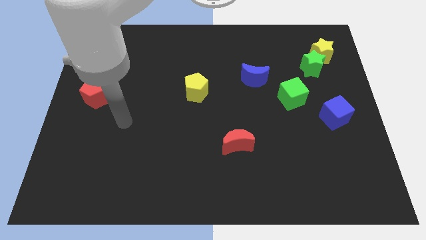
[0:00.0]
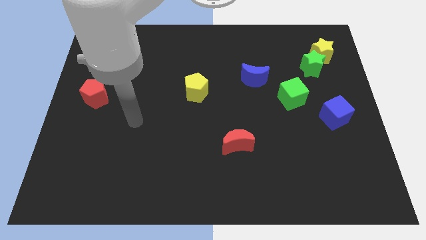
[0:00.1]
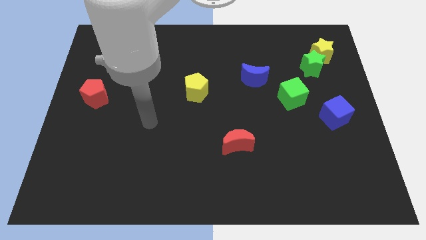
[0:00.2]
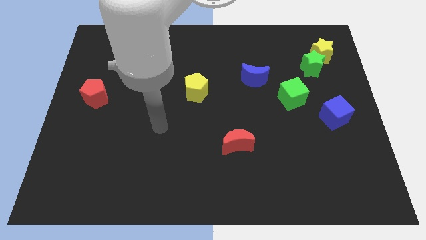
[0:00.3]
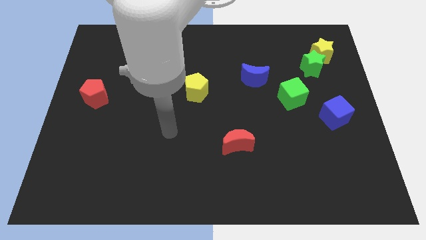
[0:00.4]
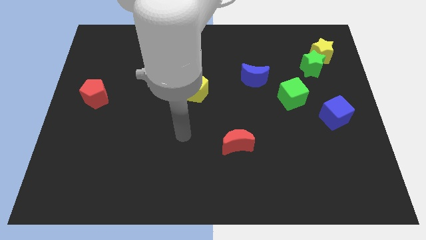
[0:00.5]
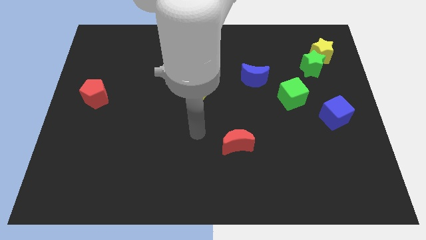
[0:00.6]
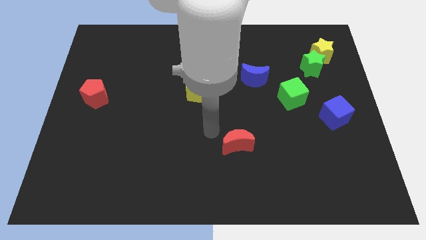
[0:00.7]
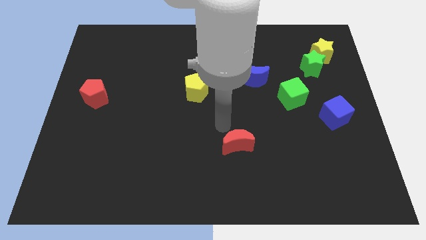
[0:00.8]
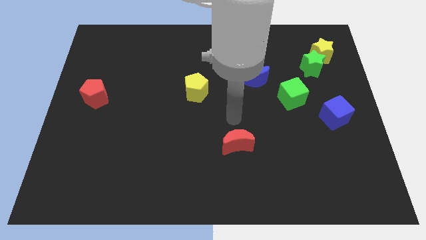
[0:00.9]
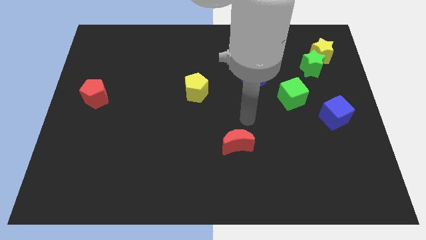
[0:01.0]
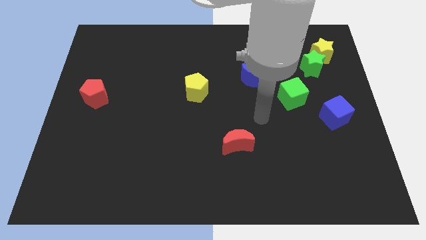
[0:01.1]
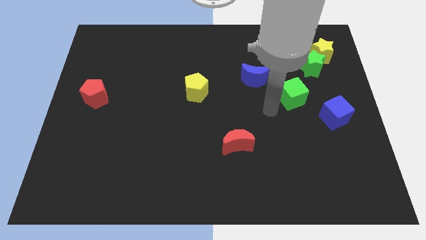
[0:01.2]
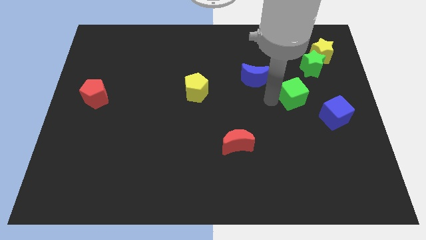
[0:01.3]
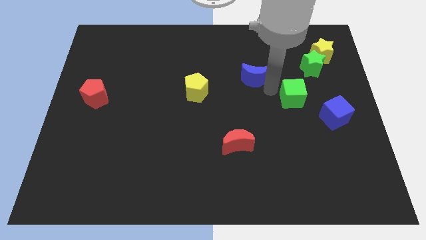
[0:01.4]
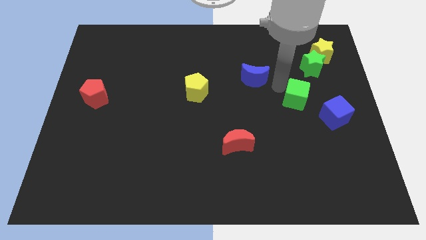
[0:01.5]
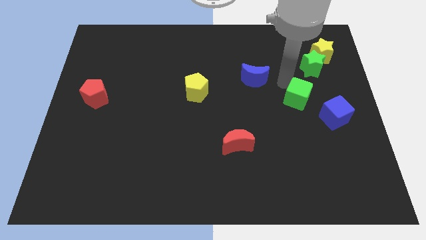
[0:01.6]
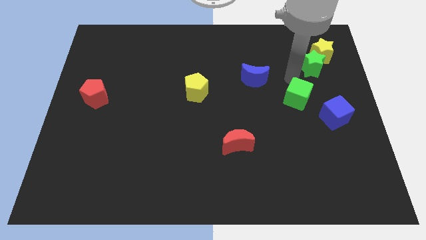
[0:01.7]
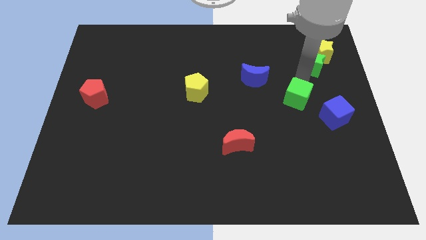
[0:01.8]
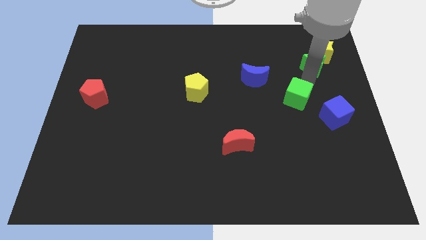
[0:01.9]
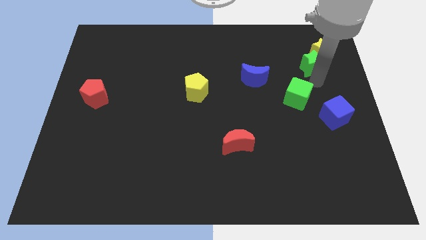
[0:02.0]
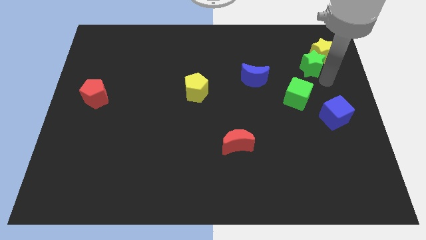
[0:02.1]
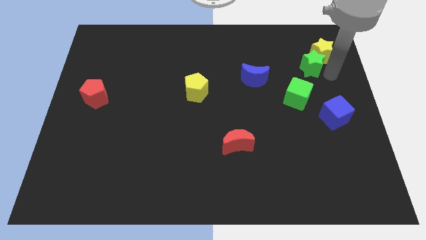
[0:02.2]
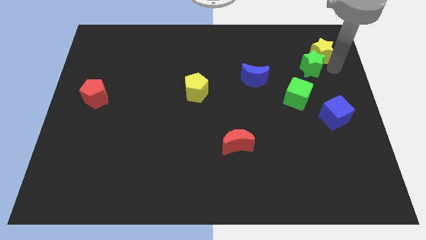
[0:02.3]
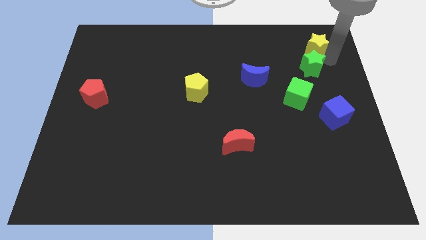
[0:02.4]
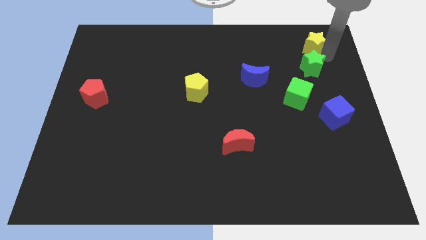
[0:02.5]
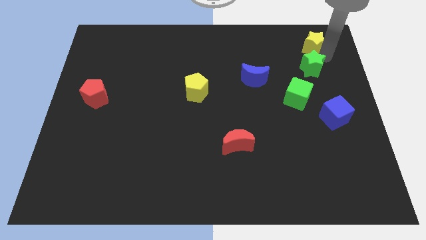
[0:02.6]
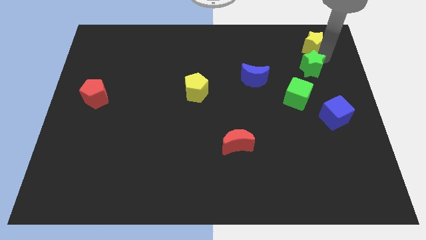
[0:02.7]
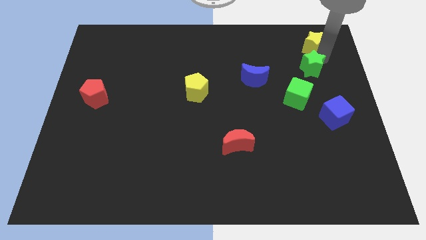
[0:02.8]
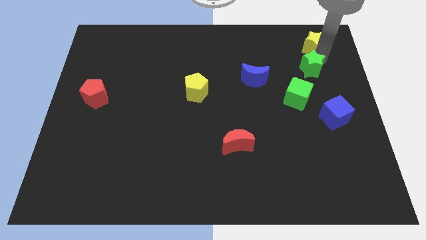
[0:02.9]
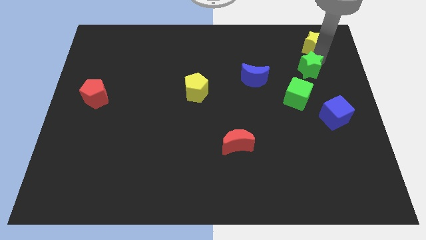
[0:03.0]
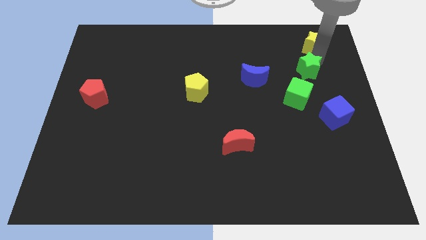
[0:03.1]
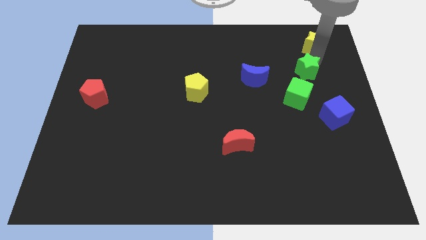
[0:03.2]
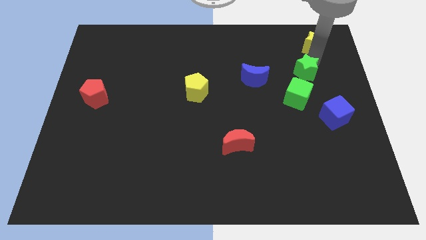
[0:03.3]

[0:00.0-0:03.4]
move the green star away from the yellow star

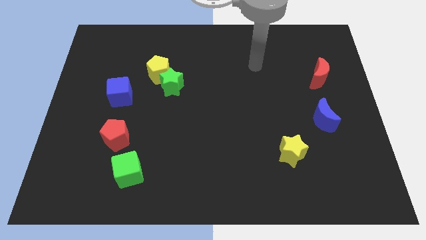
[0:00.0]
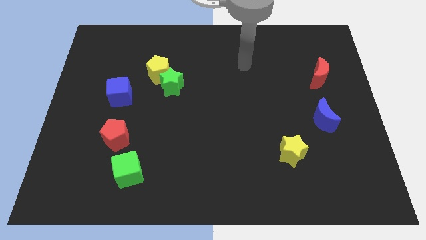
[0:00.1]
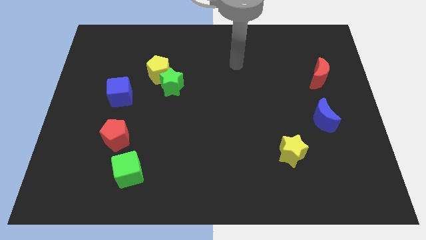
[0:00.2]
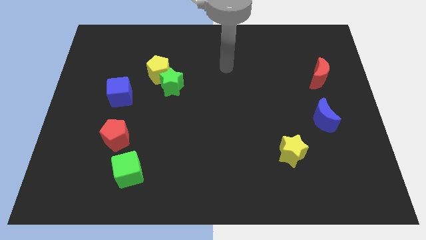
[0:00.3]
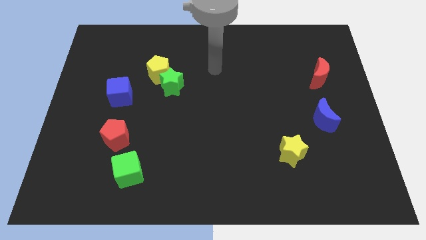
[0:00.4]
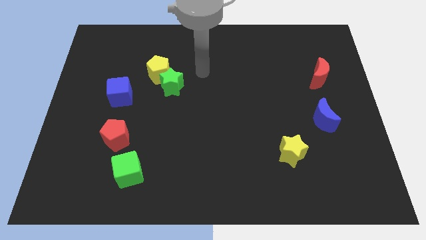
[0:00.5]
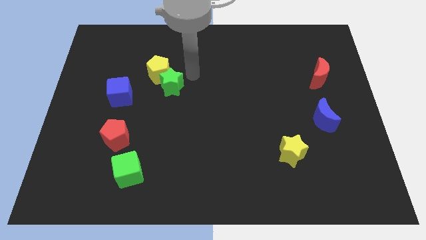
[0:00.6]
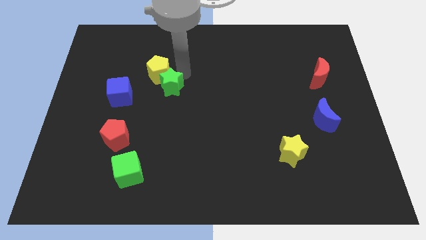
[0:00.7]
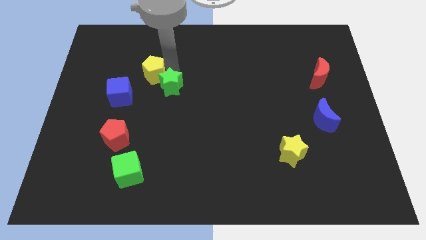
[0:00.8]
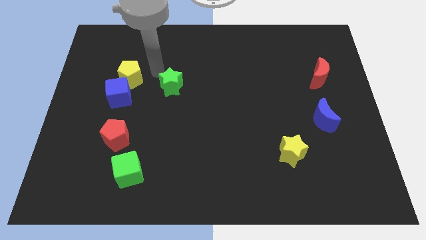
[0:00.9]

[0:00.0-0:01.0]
move the green star away from the yellow pentagon

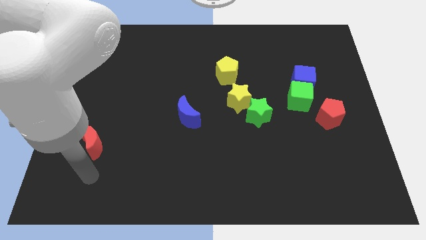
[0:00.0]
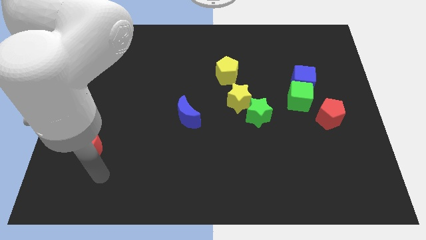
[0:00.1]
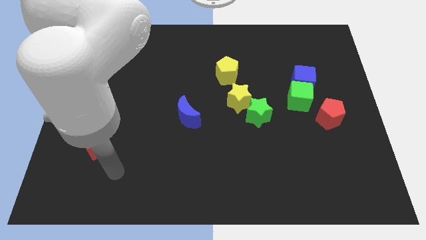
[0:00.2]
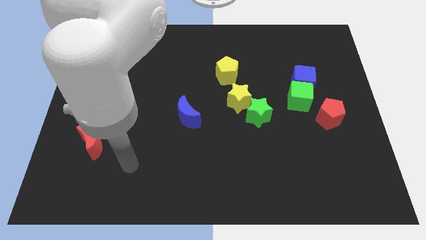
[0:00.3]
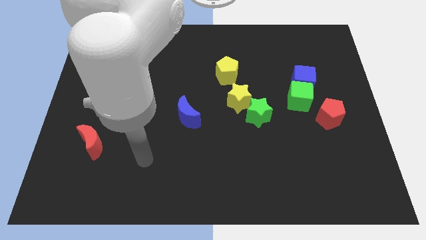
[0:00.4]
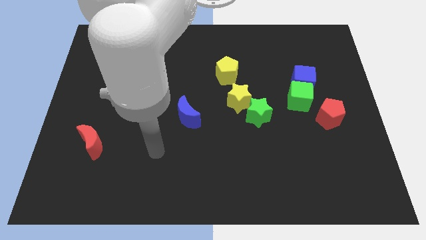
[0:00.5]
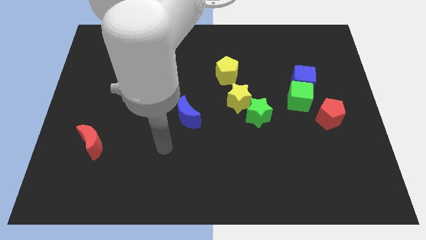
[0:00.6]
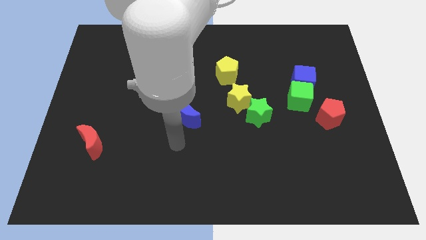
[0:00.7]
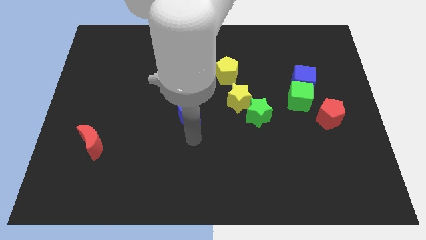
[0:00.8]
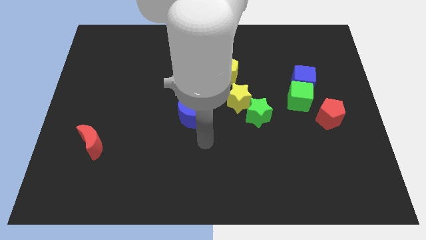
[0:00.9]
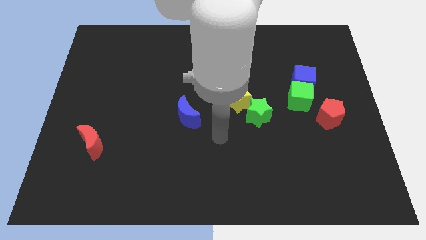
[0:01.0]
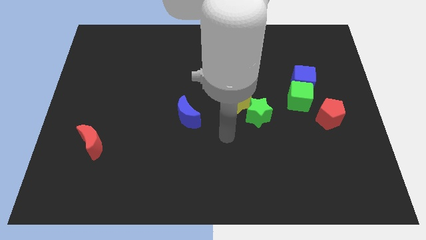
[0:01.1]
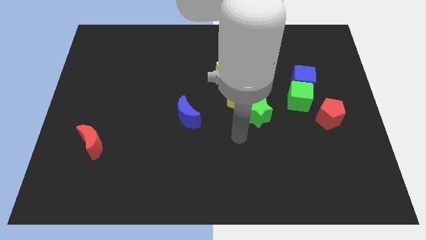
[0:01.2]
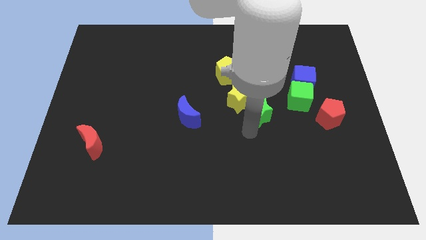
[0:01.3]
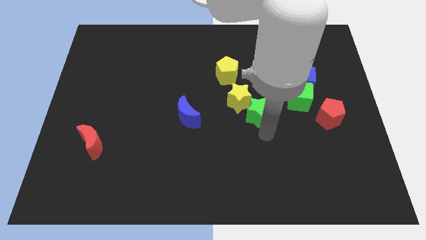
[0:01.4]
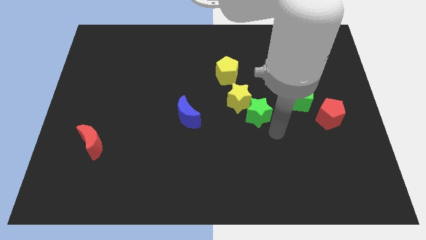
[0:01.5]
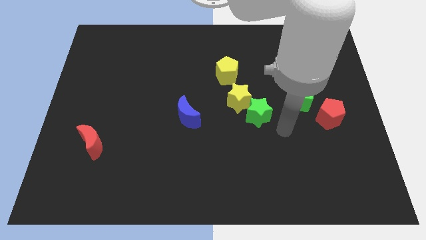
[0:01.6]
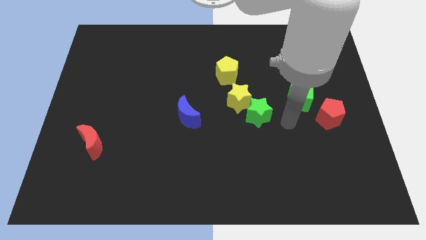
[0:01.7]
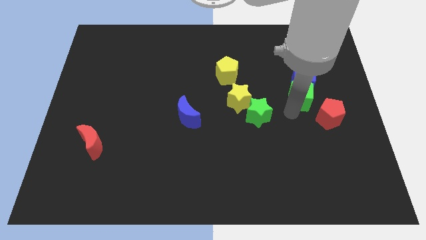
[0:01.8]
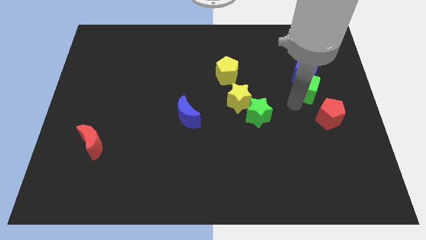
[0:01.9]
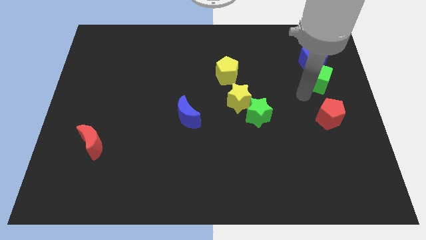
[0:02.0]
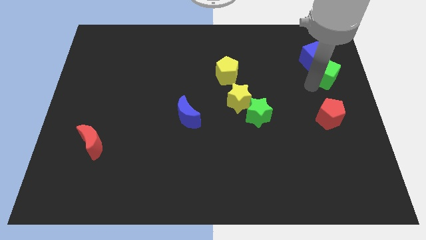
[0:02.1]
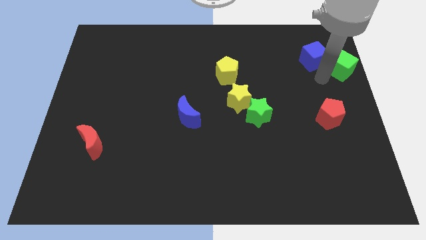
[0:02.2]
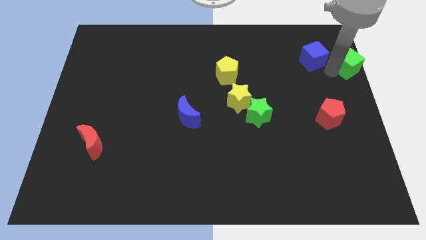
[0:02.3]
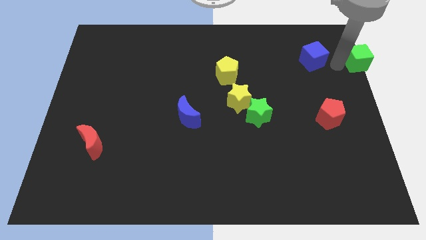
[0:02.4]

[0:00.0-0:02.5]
pull the blue cube apart from the green cube

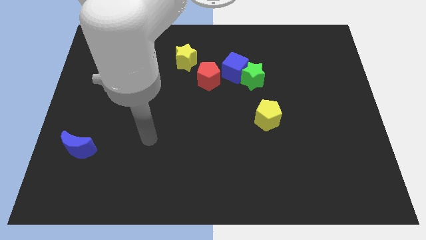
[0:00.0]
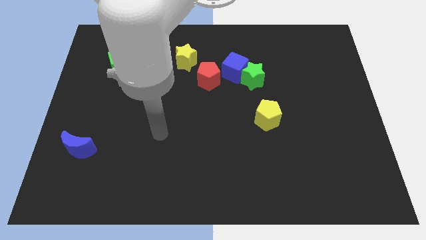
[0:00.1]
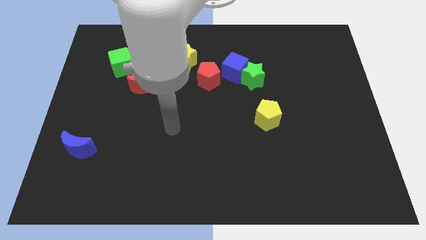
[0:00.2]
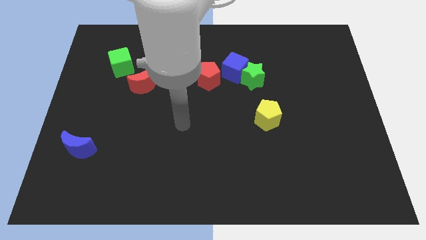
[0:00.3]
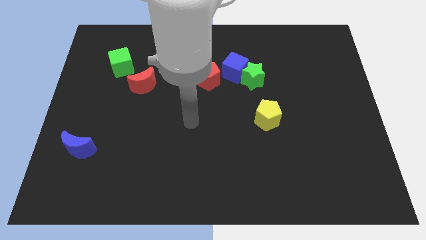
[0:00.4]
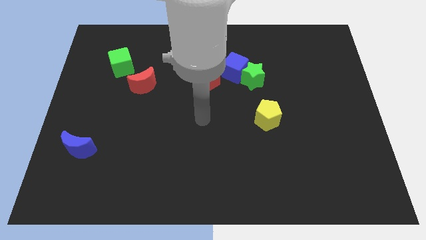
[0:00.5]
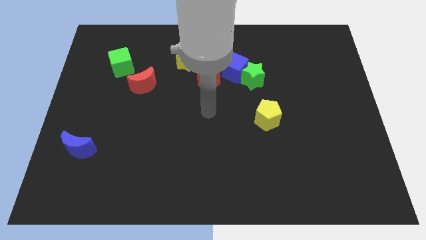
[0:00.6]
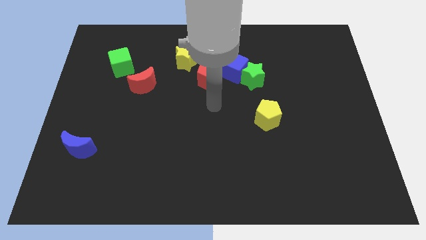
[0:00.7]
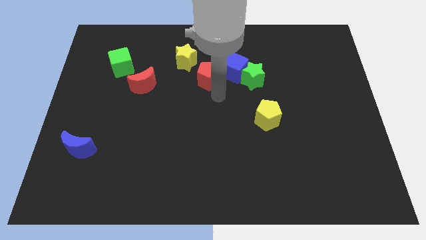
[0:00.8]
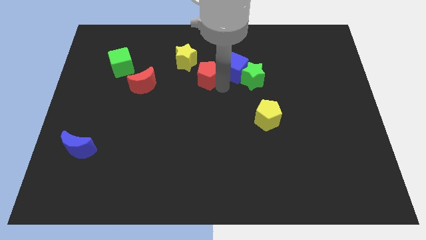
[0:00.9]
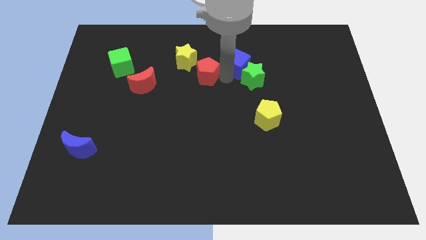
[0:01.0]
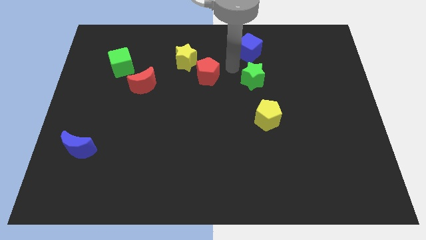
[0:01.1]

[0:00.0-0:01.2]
move the green star away from the blue cube

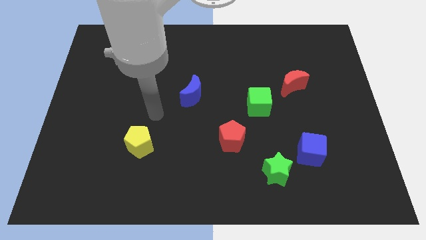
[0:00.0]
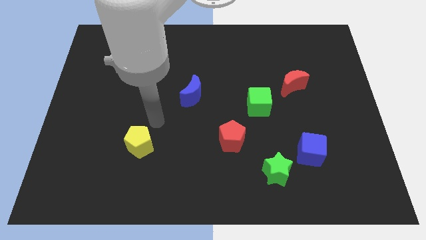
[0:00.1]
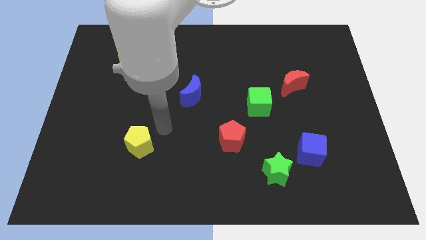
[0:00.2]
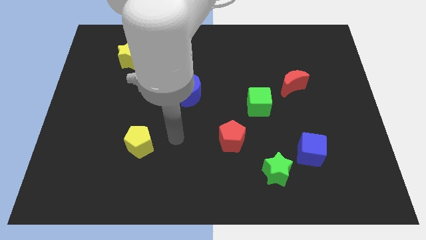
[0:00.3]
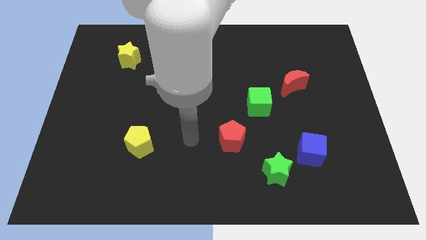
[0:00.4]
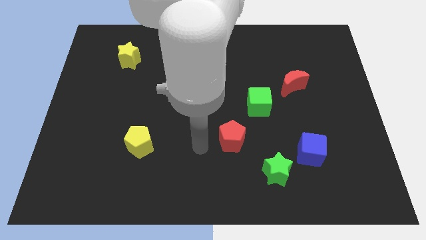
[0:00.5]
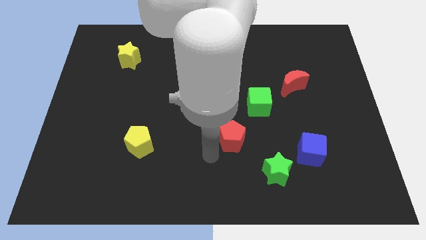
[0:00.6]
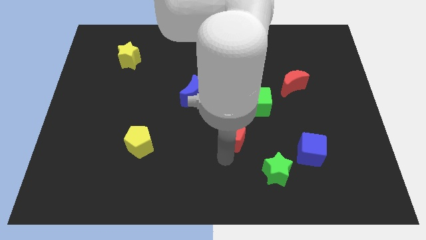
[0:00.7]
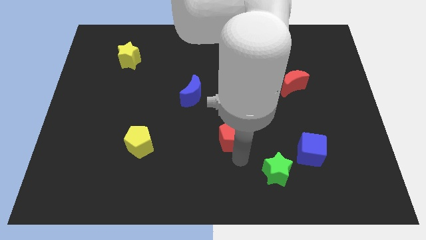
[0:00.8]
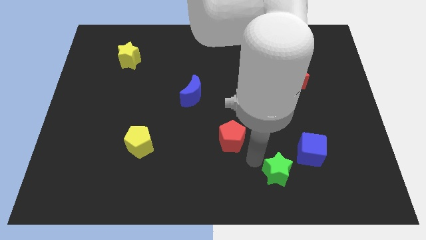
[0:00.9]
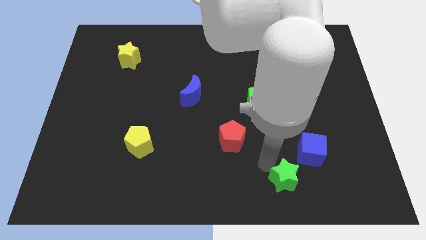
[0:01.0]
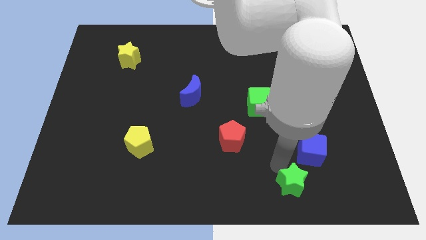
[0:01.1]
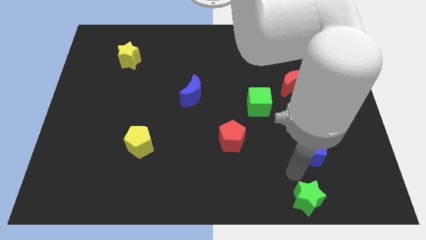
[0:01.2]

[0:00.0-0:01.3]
separate the blue cube from the green star
